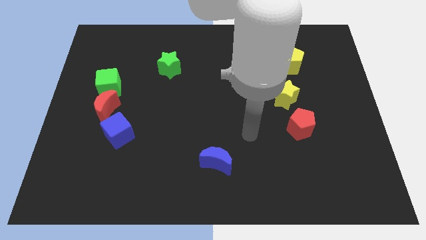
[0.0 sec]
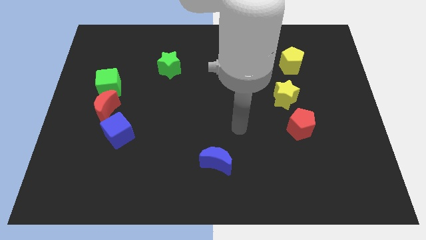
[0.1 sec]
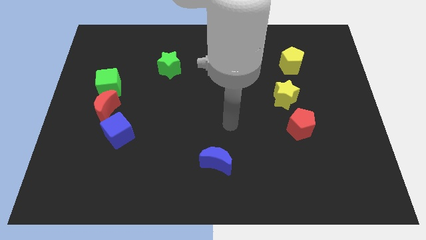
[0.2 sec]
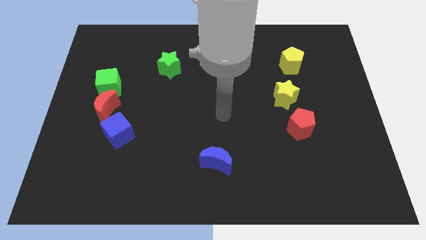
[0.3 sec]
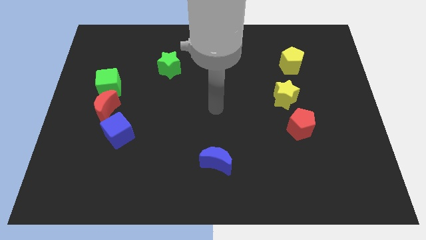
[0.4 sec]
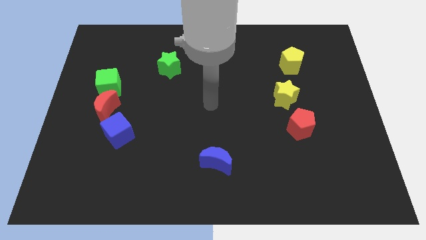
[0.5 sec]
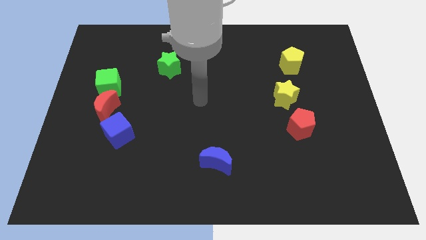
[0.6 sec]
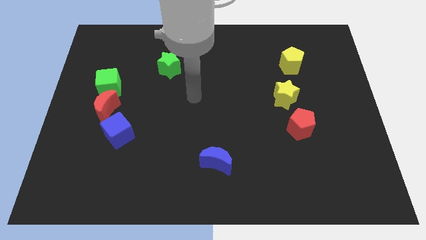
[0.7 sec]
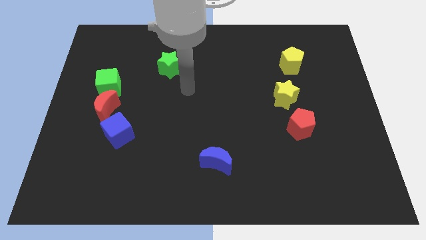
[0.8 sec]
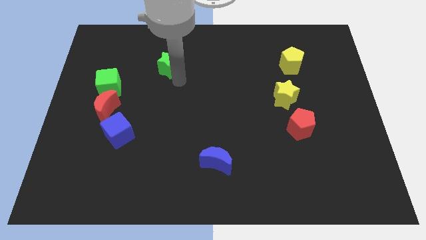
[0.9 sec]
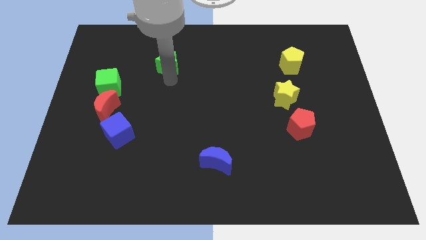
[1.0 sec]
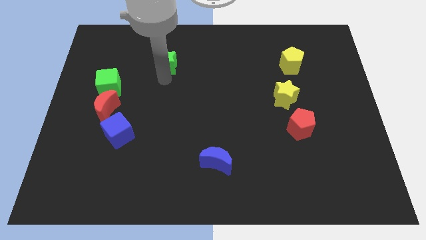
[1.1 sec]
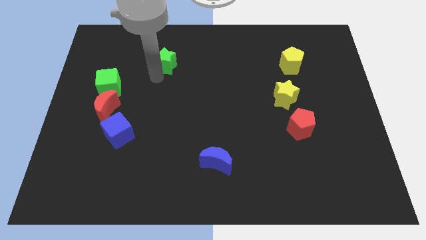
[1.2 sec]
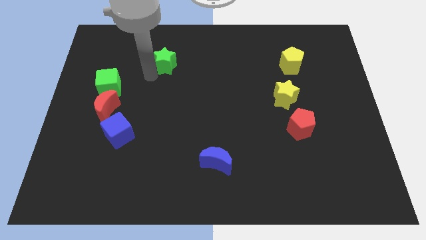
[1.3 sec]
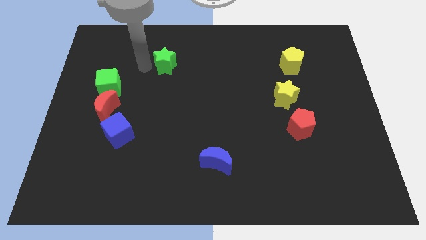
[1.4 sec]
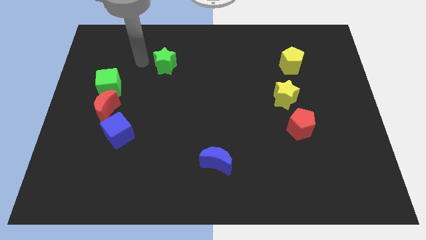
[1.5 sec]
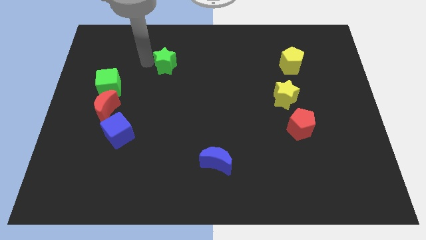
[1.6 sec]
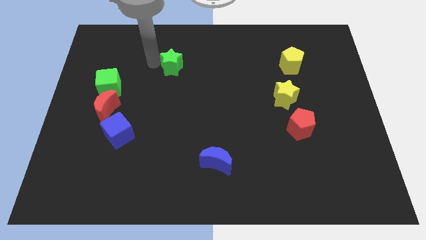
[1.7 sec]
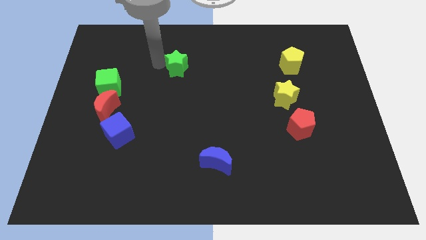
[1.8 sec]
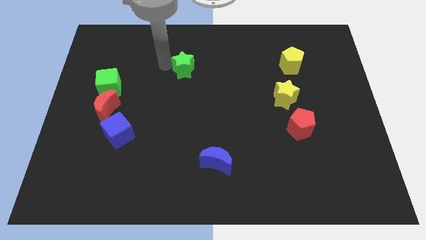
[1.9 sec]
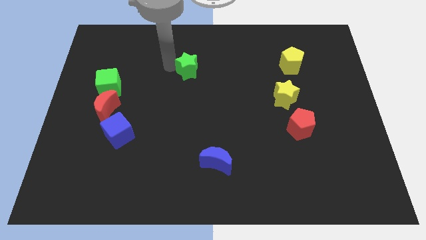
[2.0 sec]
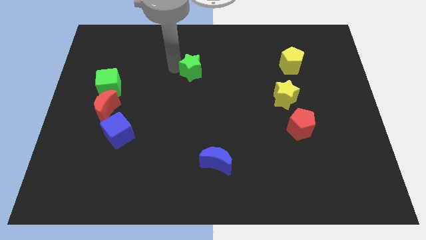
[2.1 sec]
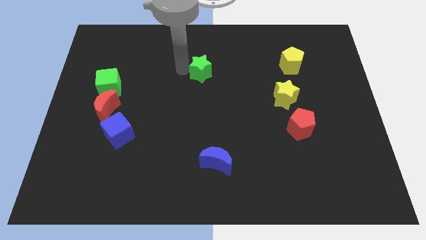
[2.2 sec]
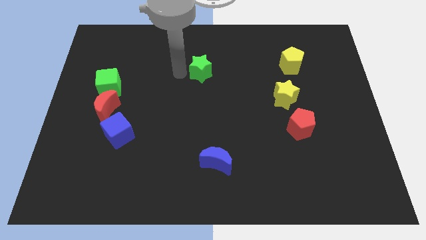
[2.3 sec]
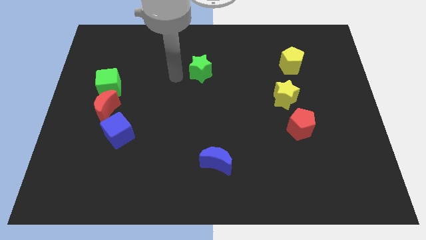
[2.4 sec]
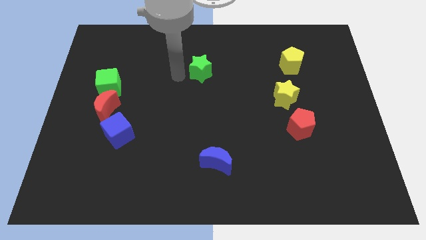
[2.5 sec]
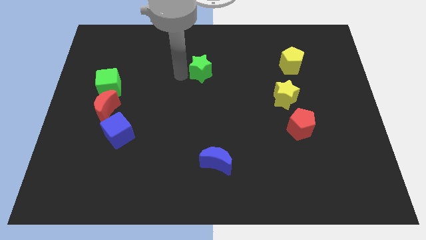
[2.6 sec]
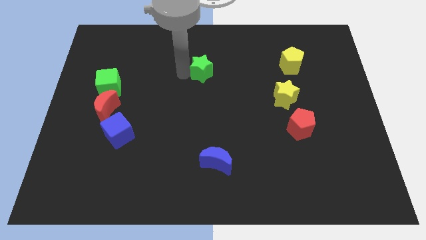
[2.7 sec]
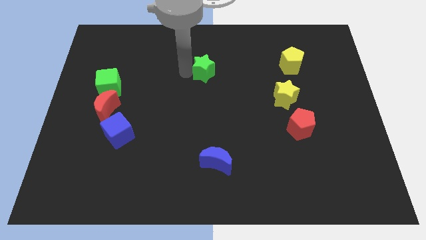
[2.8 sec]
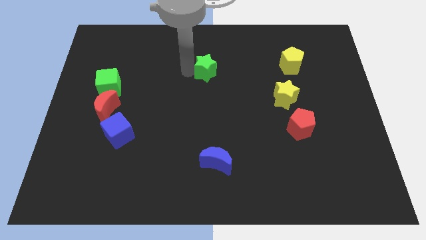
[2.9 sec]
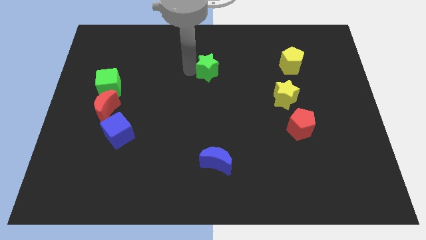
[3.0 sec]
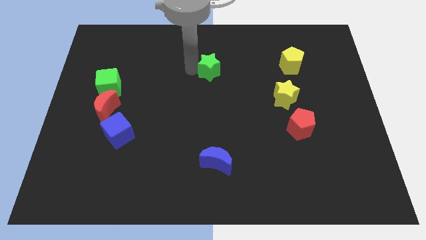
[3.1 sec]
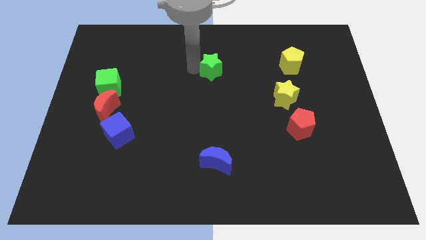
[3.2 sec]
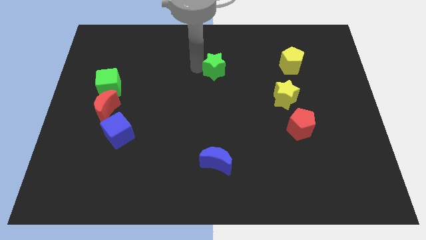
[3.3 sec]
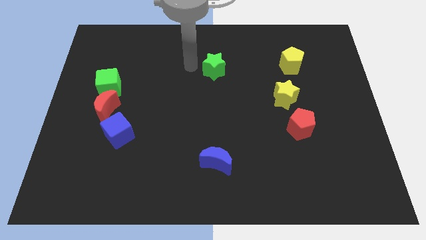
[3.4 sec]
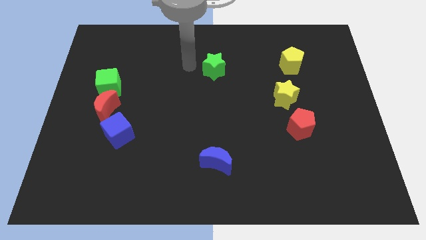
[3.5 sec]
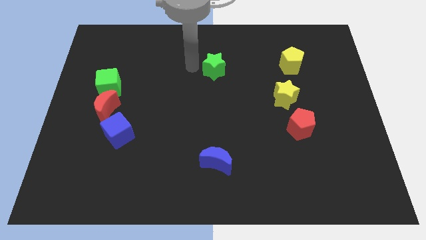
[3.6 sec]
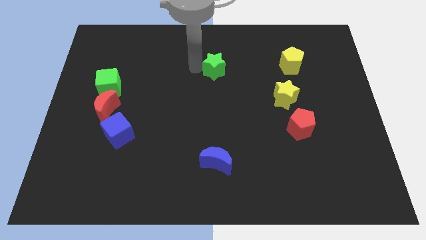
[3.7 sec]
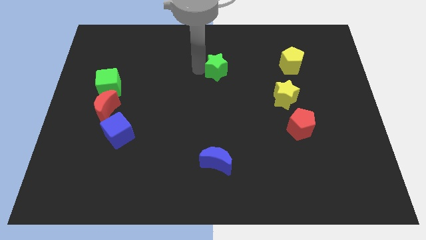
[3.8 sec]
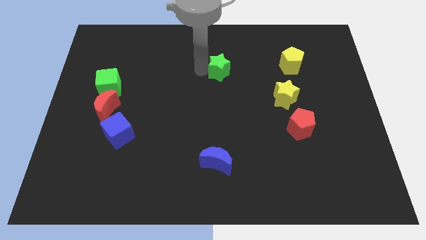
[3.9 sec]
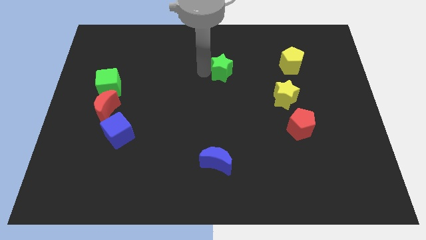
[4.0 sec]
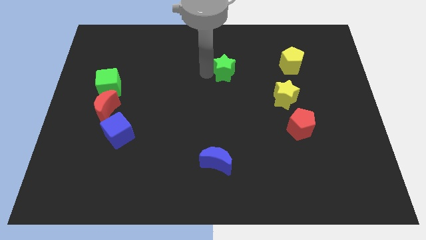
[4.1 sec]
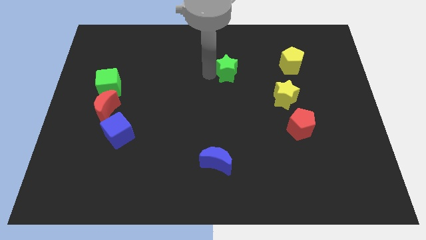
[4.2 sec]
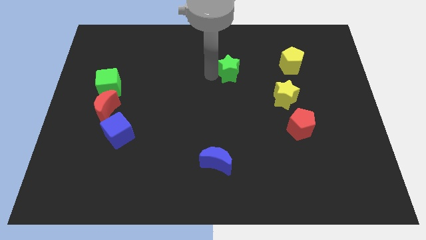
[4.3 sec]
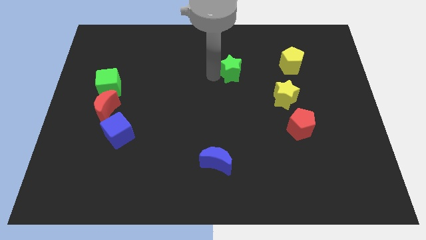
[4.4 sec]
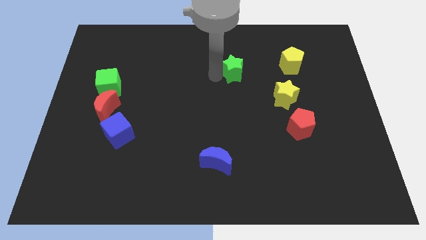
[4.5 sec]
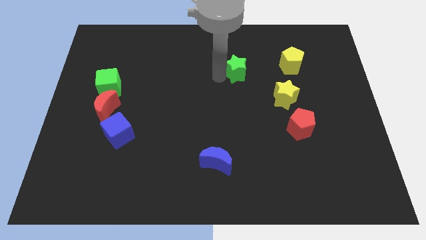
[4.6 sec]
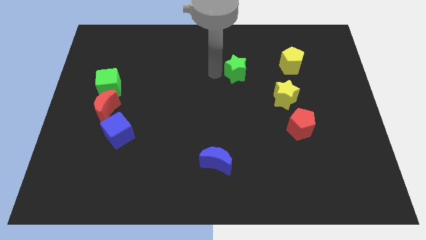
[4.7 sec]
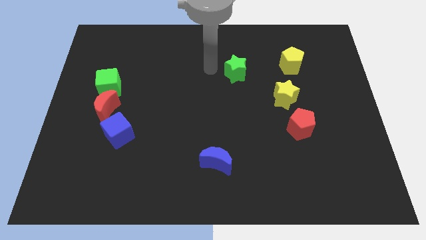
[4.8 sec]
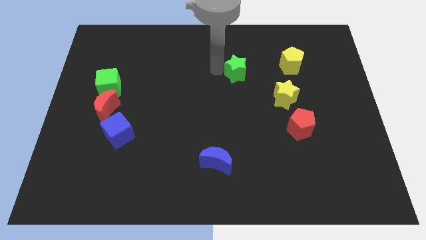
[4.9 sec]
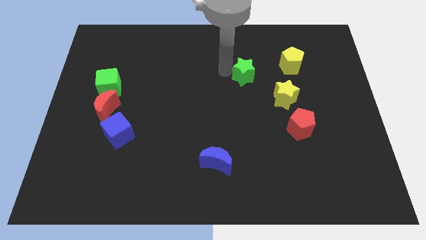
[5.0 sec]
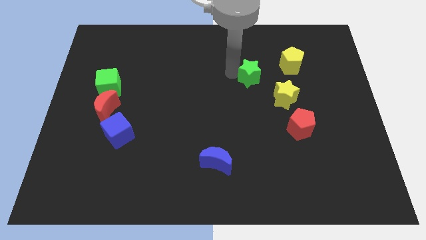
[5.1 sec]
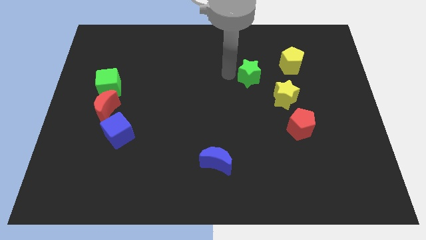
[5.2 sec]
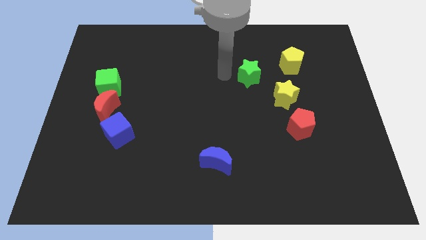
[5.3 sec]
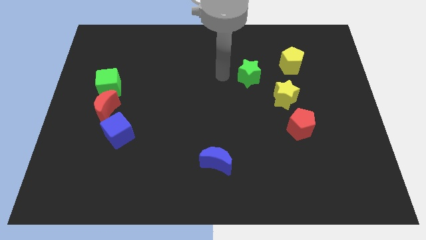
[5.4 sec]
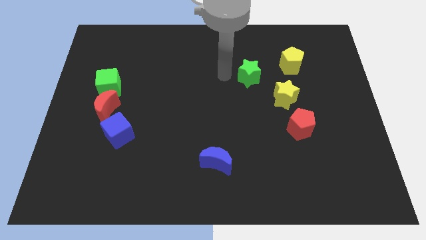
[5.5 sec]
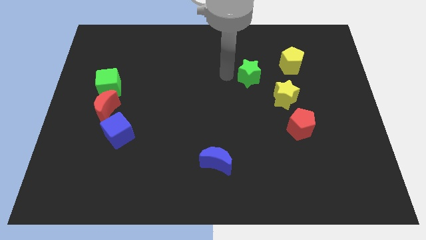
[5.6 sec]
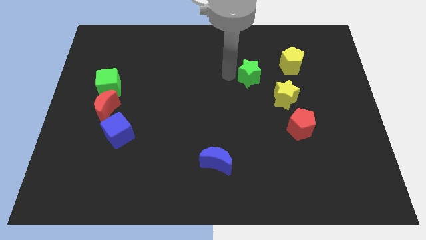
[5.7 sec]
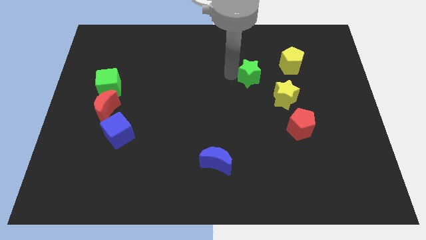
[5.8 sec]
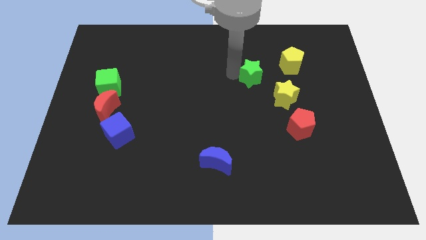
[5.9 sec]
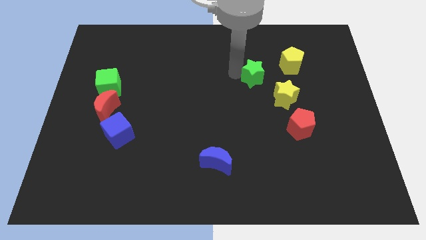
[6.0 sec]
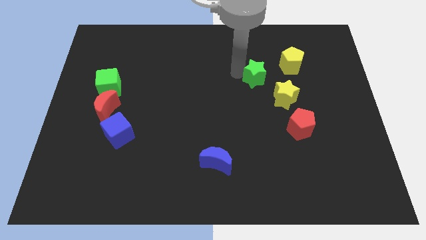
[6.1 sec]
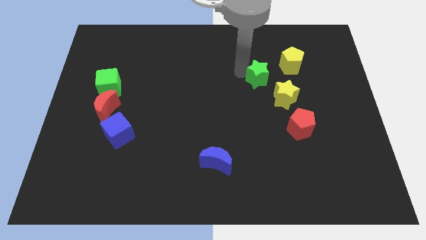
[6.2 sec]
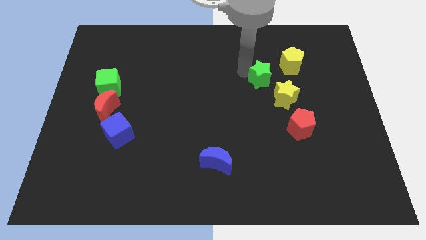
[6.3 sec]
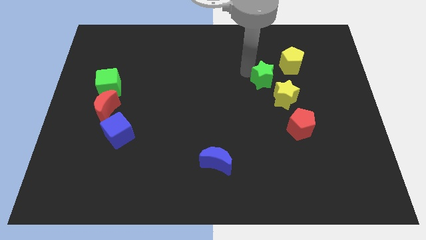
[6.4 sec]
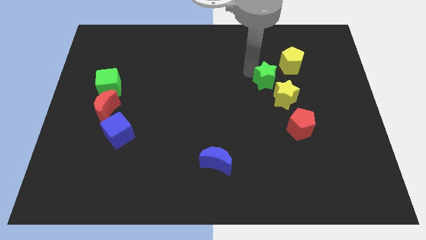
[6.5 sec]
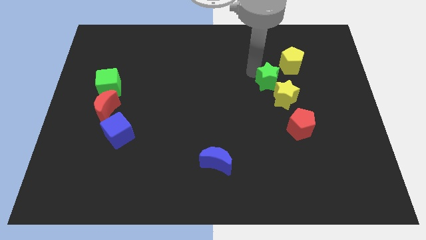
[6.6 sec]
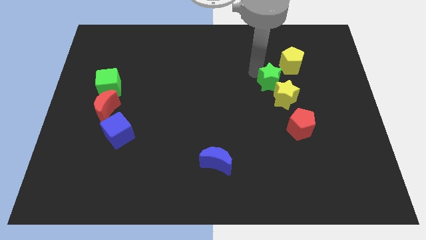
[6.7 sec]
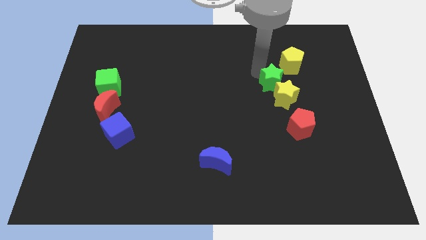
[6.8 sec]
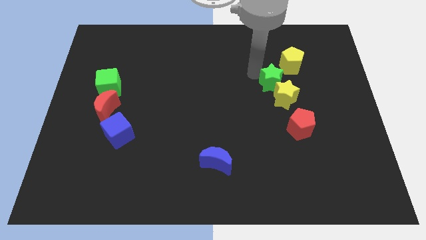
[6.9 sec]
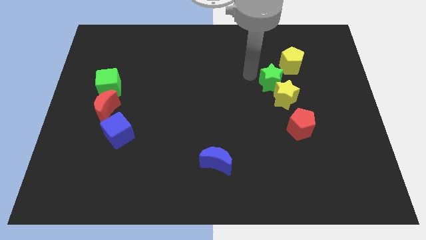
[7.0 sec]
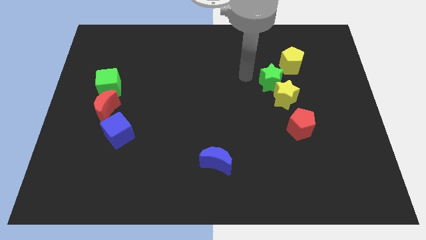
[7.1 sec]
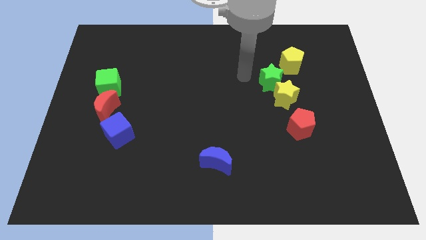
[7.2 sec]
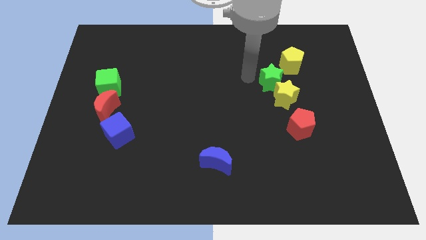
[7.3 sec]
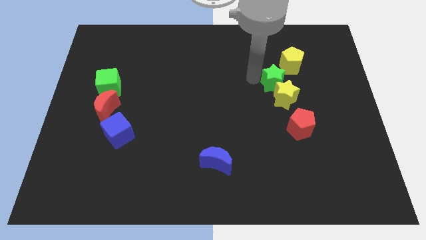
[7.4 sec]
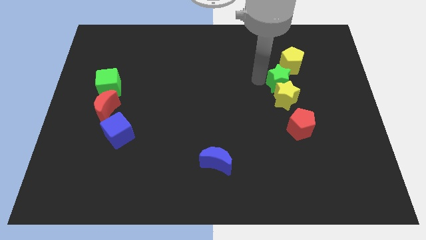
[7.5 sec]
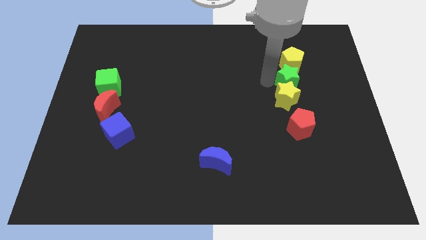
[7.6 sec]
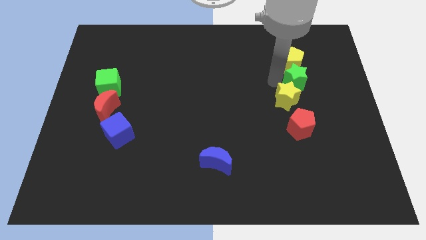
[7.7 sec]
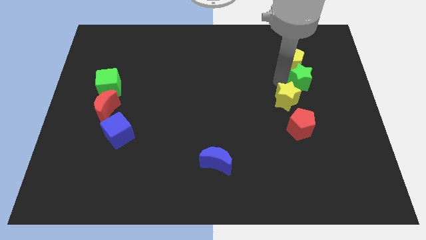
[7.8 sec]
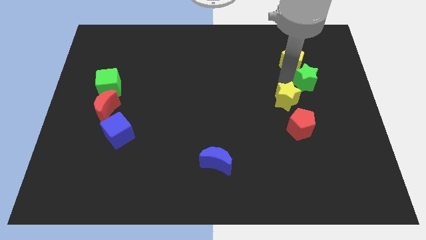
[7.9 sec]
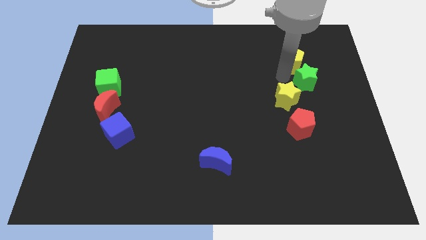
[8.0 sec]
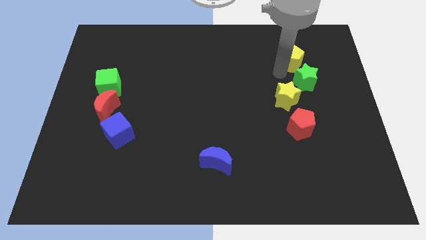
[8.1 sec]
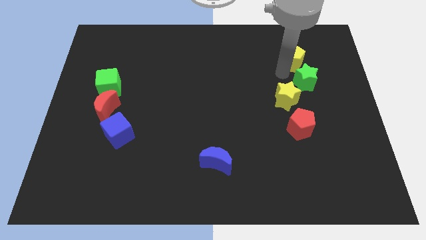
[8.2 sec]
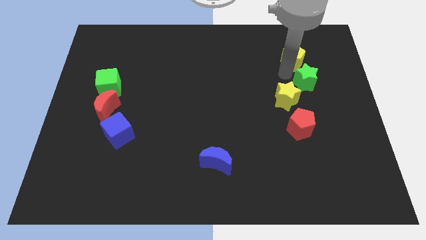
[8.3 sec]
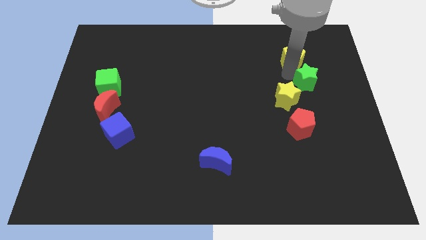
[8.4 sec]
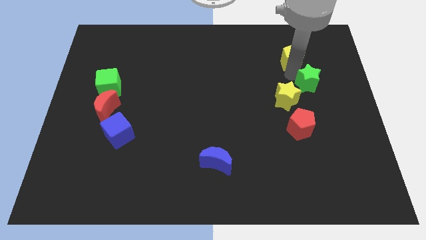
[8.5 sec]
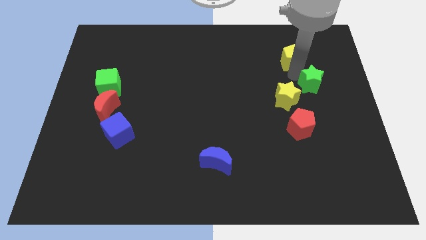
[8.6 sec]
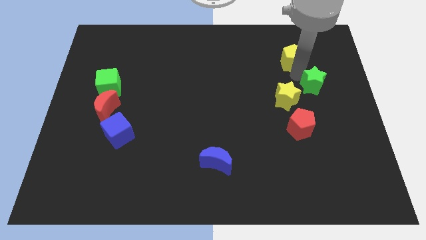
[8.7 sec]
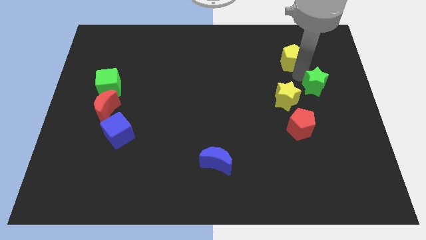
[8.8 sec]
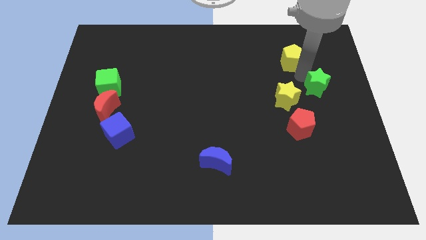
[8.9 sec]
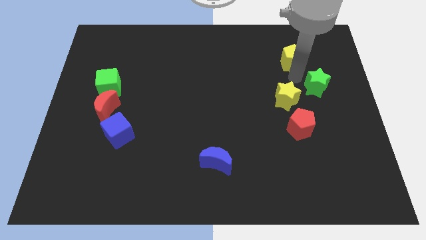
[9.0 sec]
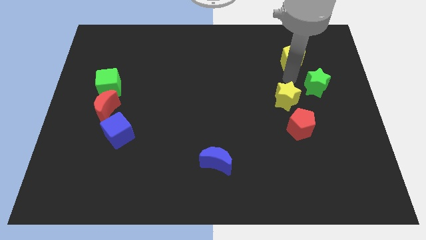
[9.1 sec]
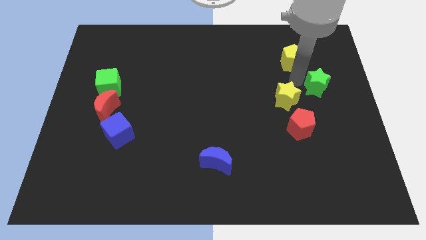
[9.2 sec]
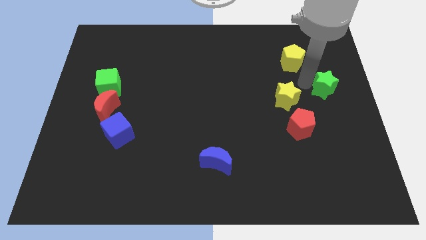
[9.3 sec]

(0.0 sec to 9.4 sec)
put the green star to the right side
